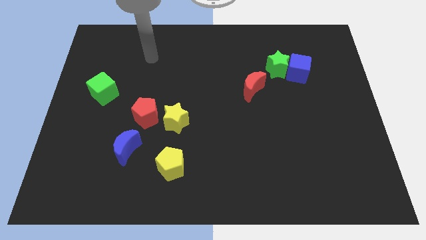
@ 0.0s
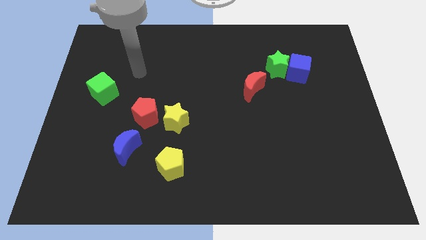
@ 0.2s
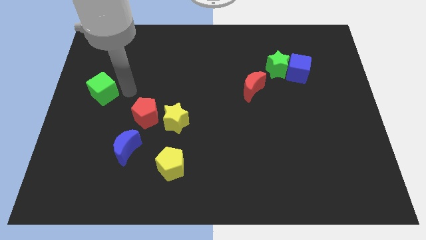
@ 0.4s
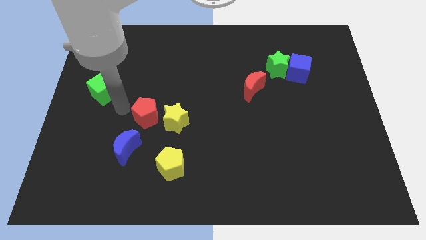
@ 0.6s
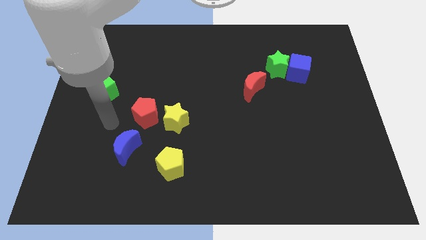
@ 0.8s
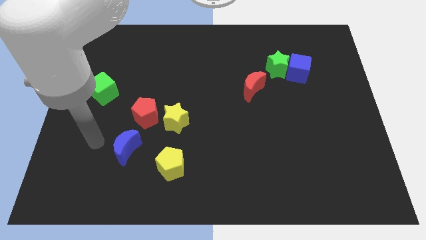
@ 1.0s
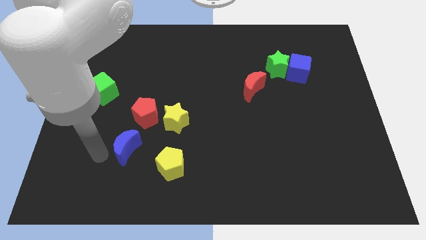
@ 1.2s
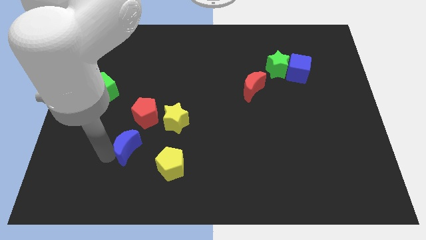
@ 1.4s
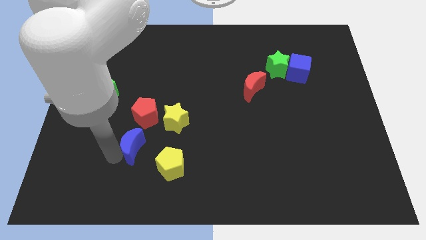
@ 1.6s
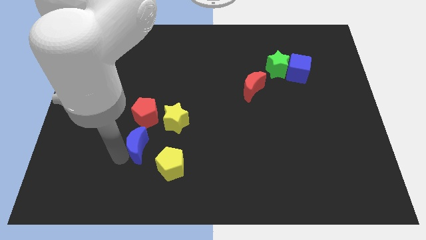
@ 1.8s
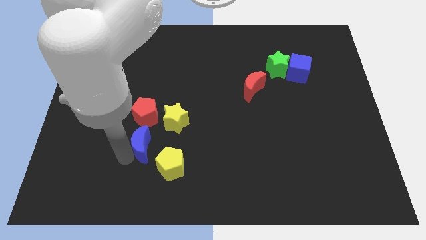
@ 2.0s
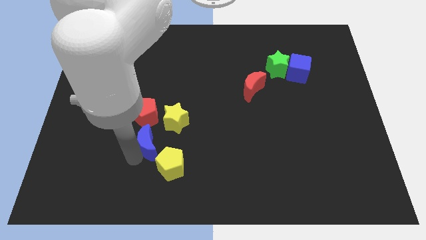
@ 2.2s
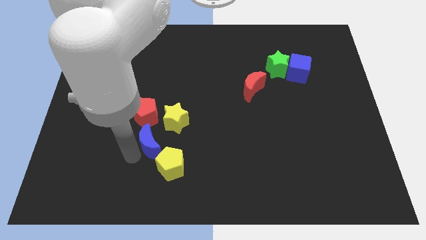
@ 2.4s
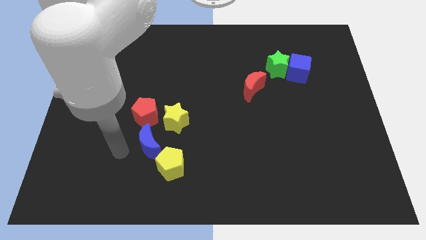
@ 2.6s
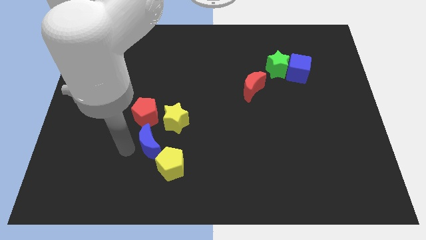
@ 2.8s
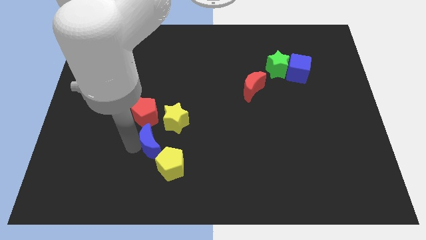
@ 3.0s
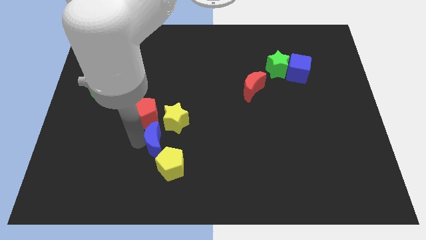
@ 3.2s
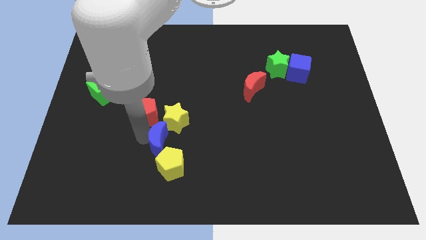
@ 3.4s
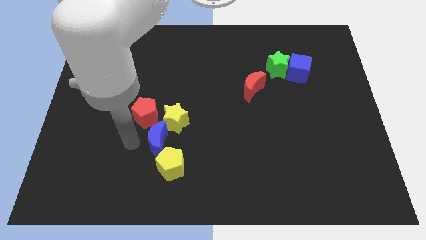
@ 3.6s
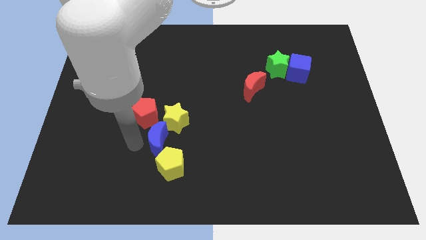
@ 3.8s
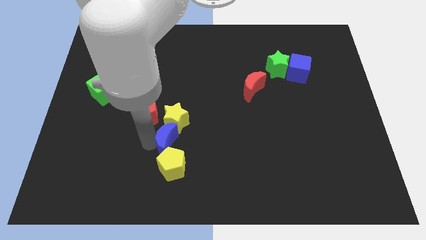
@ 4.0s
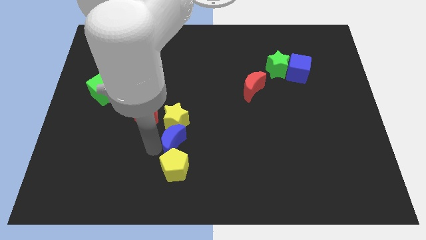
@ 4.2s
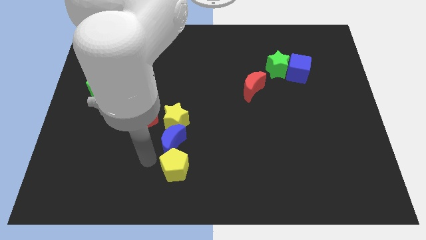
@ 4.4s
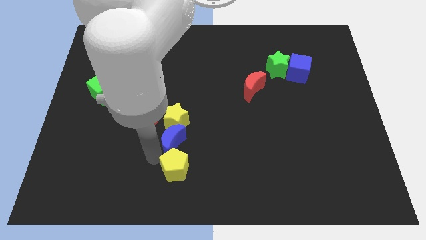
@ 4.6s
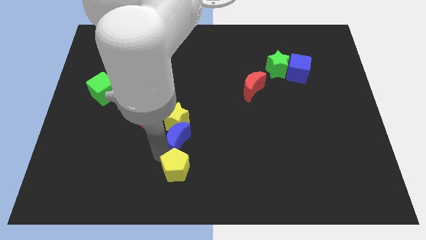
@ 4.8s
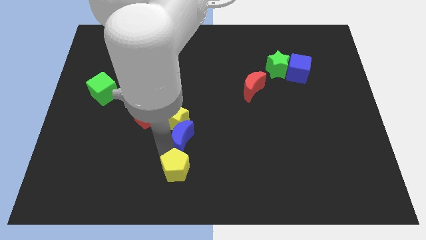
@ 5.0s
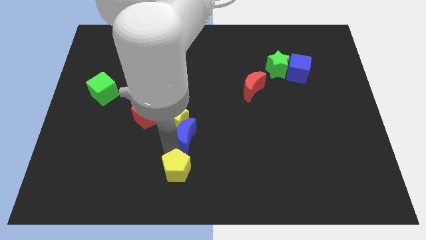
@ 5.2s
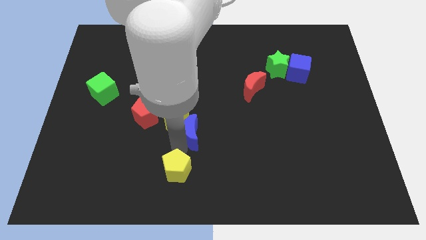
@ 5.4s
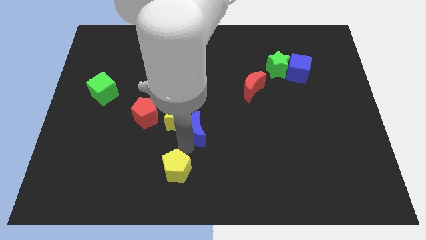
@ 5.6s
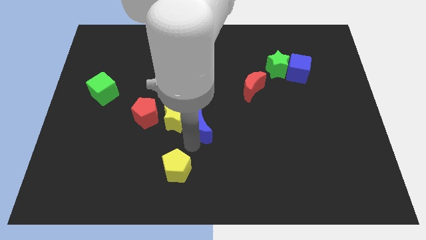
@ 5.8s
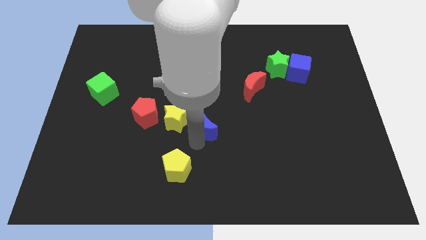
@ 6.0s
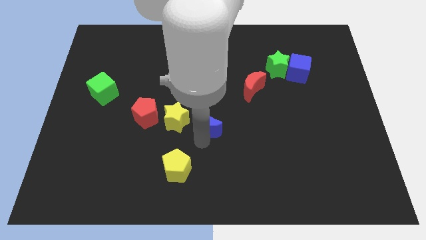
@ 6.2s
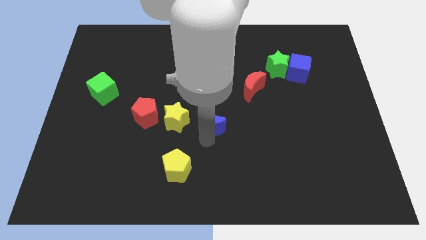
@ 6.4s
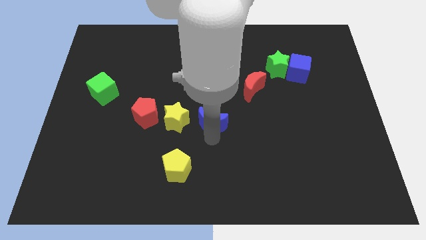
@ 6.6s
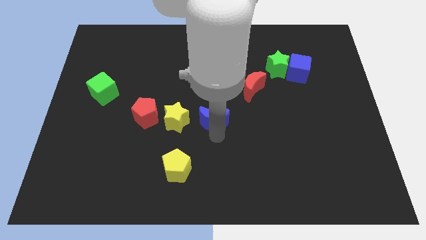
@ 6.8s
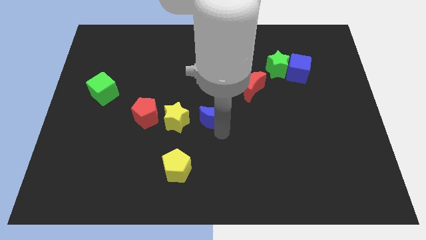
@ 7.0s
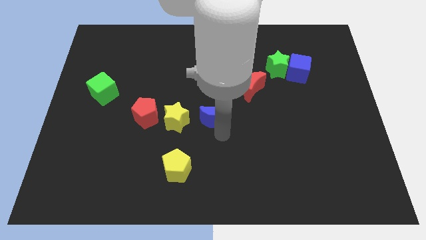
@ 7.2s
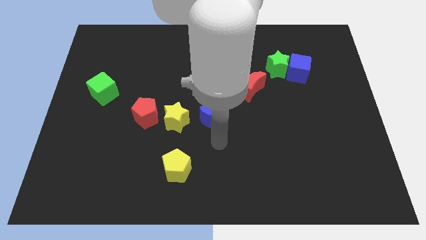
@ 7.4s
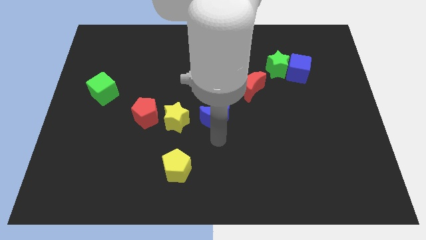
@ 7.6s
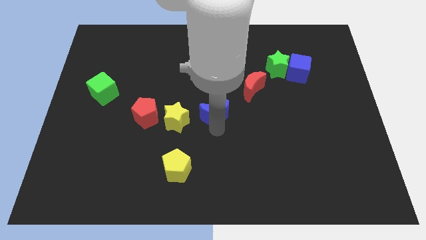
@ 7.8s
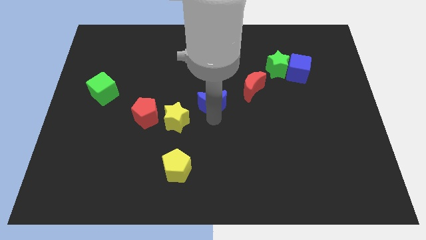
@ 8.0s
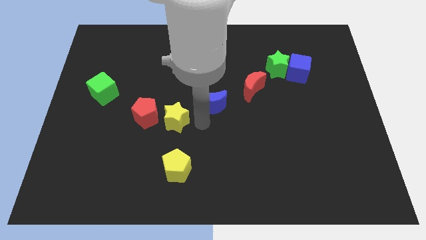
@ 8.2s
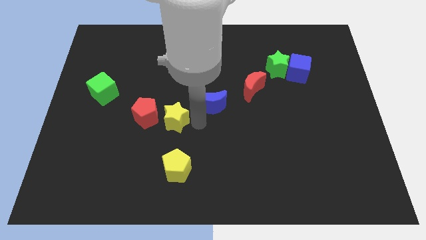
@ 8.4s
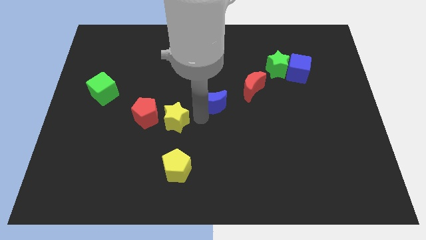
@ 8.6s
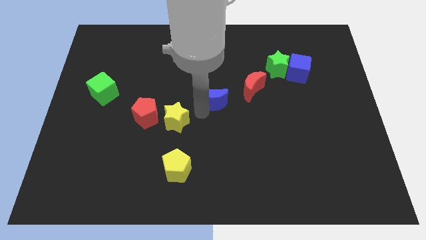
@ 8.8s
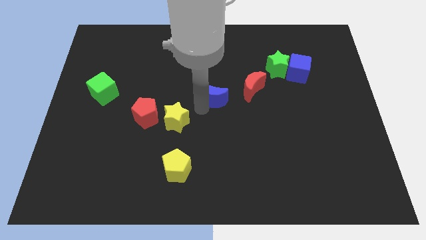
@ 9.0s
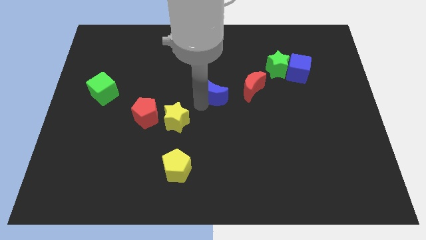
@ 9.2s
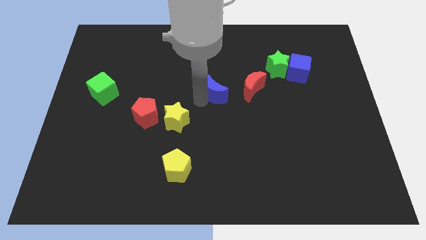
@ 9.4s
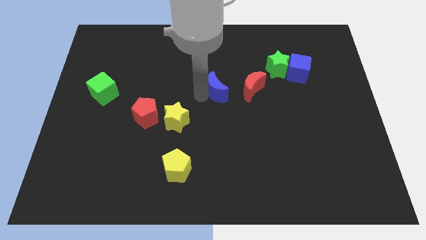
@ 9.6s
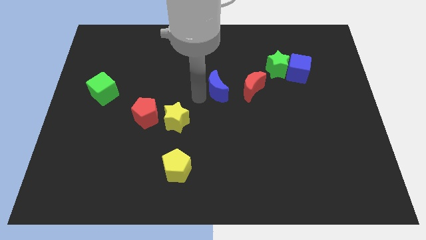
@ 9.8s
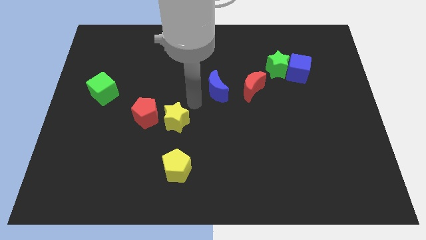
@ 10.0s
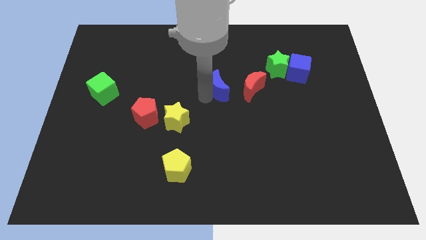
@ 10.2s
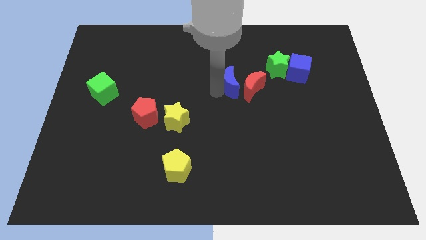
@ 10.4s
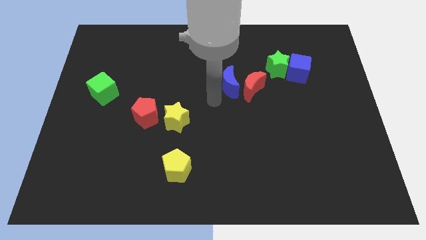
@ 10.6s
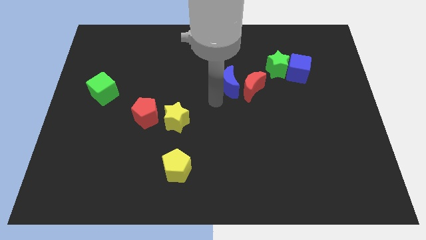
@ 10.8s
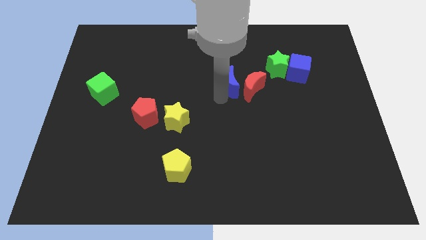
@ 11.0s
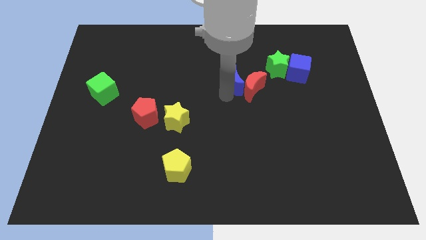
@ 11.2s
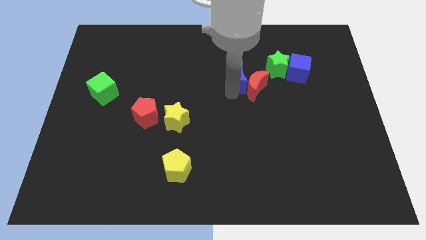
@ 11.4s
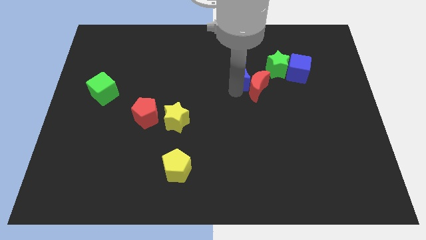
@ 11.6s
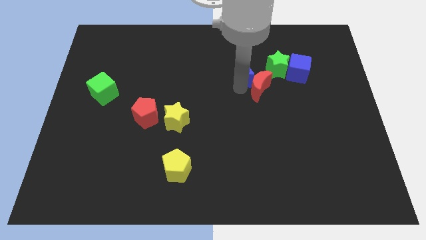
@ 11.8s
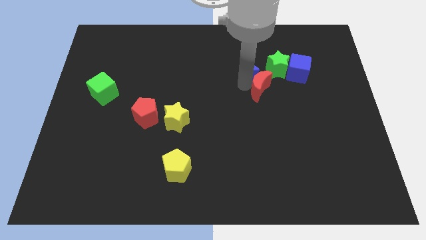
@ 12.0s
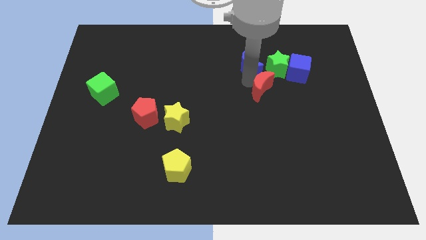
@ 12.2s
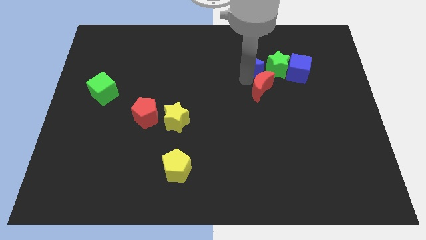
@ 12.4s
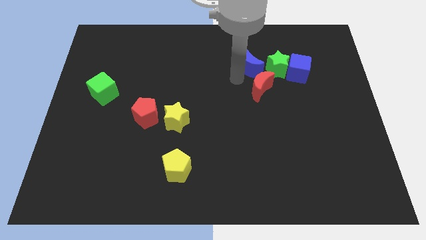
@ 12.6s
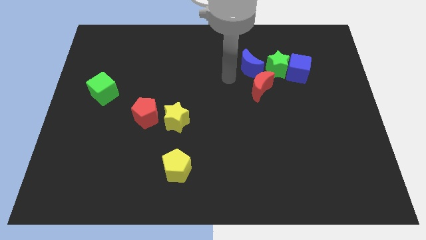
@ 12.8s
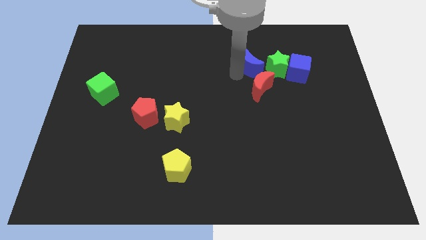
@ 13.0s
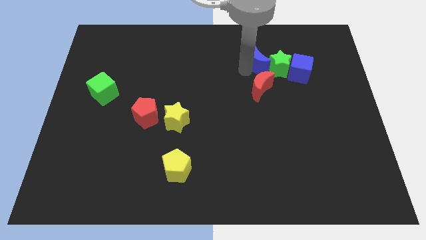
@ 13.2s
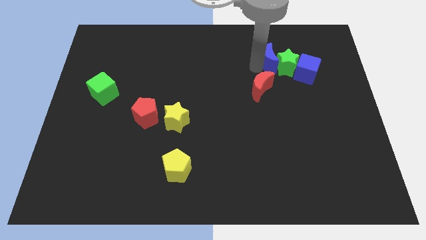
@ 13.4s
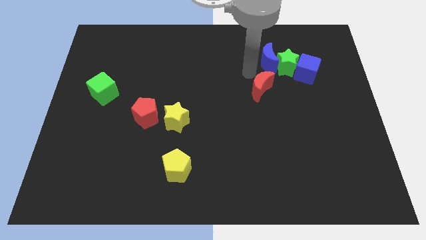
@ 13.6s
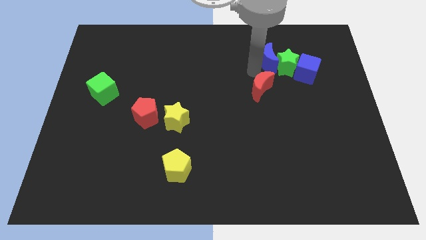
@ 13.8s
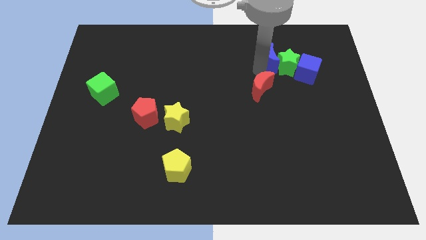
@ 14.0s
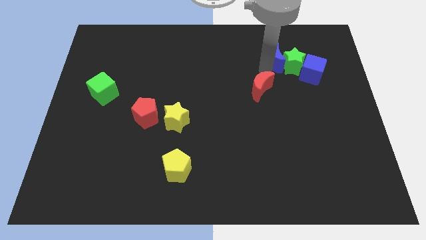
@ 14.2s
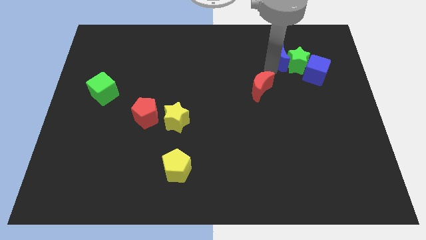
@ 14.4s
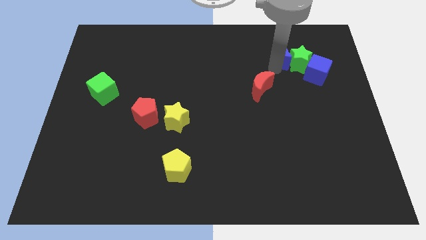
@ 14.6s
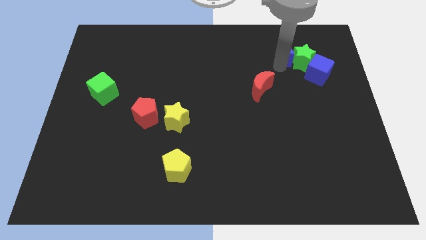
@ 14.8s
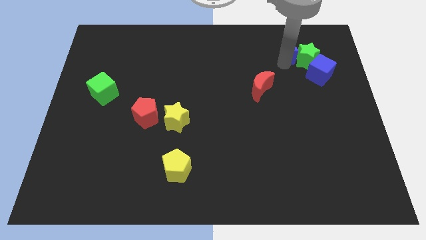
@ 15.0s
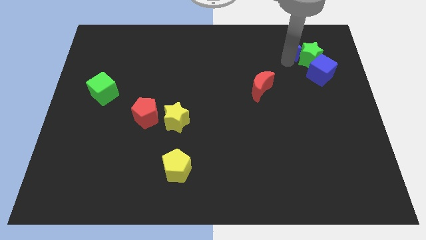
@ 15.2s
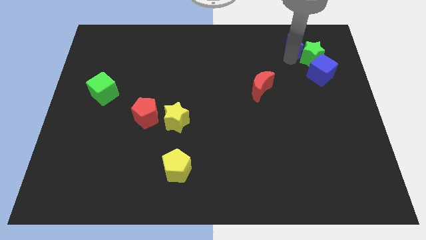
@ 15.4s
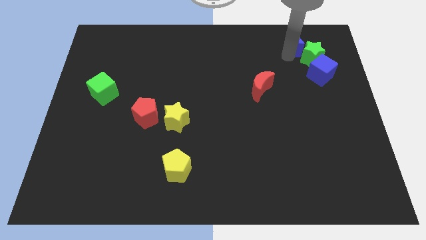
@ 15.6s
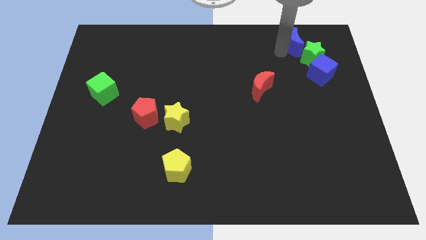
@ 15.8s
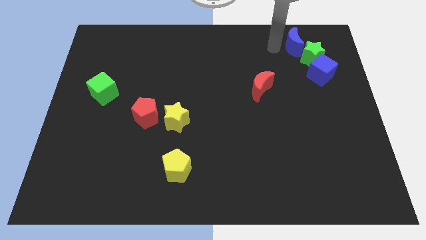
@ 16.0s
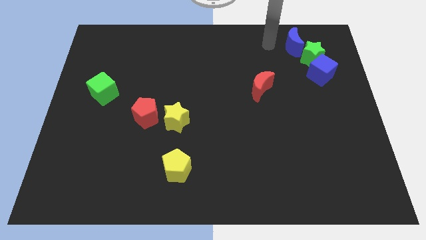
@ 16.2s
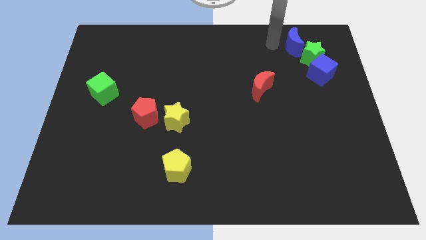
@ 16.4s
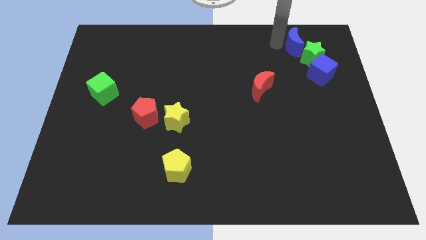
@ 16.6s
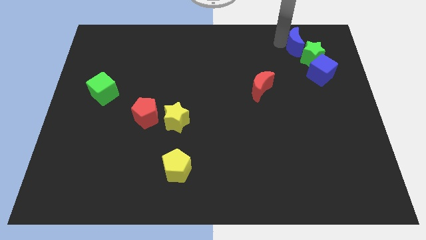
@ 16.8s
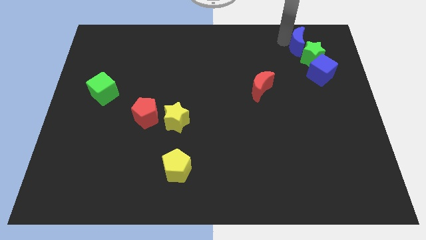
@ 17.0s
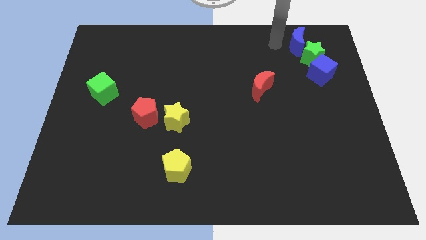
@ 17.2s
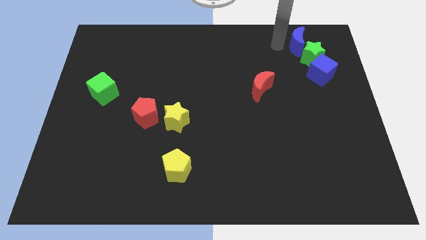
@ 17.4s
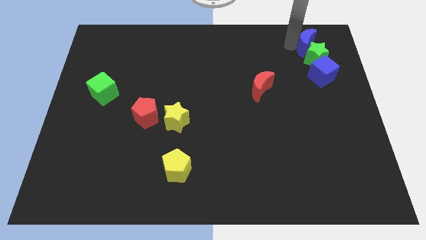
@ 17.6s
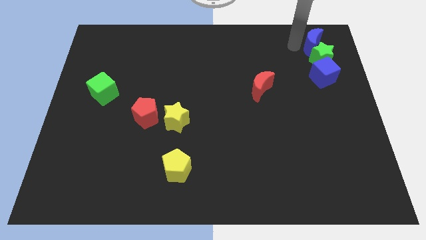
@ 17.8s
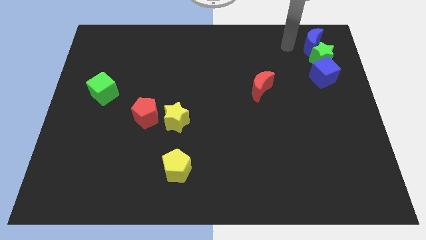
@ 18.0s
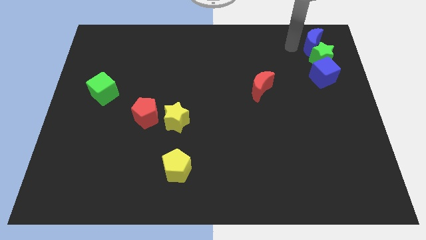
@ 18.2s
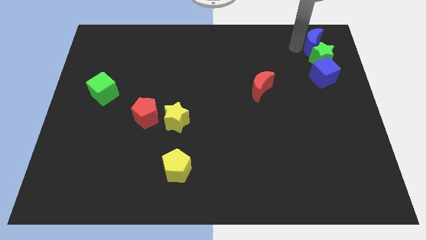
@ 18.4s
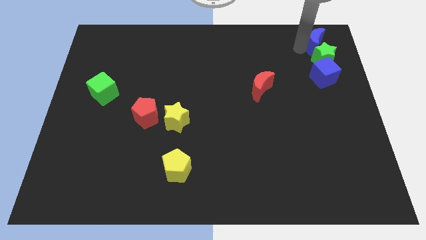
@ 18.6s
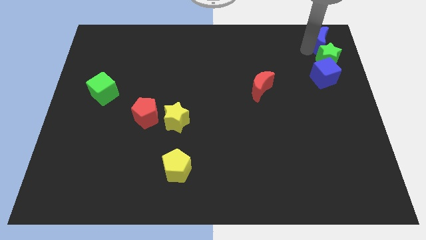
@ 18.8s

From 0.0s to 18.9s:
slide the blue moon to the upper right corner
